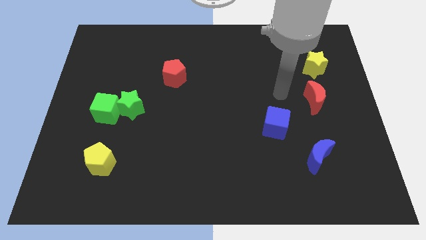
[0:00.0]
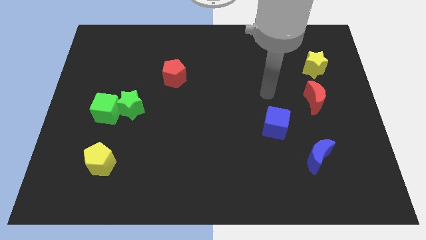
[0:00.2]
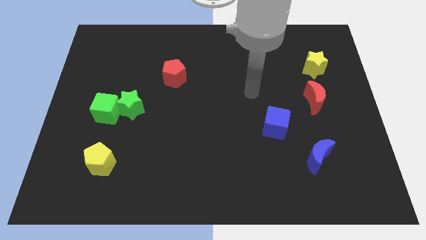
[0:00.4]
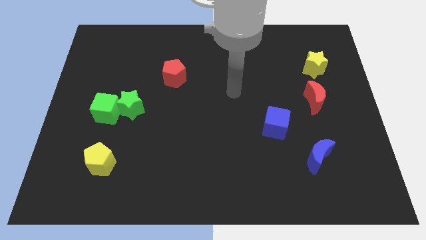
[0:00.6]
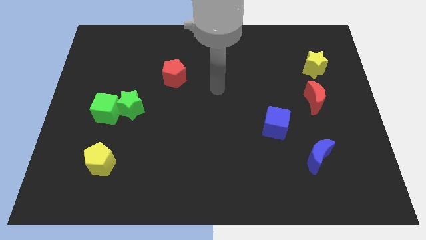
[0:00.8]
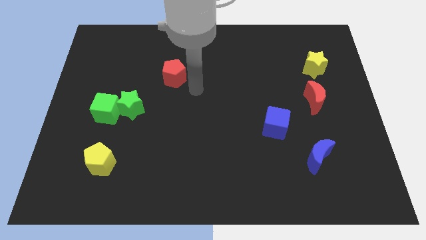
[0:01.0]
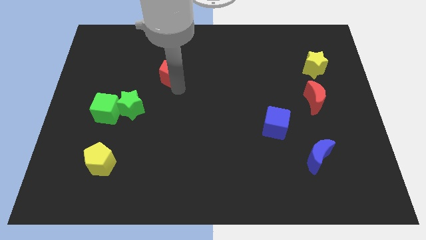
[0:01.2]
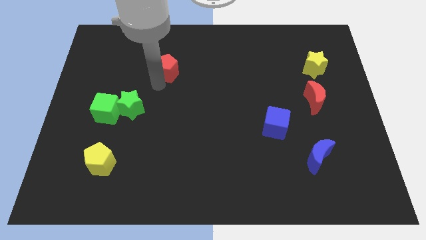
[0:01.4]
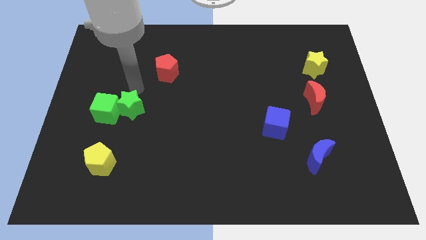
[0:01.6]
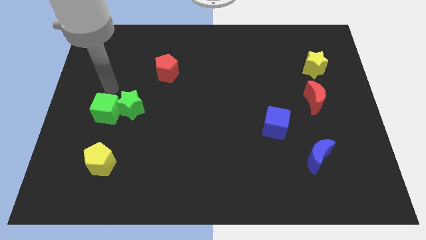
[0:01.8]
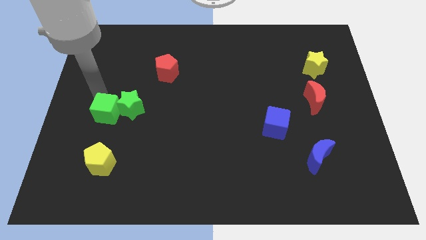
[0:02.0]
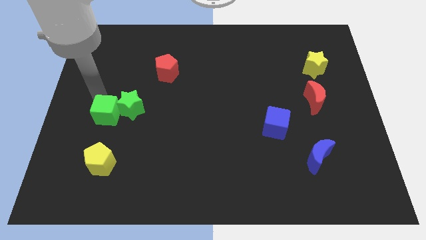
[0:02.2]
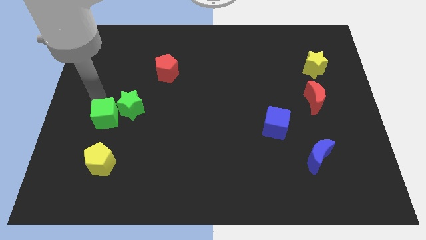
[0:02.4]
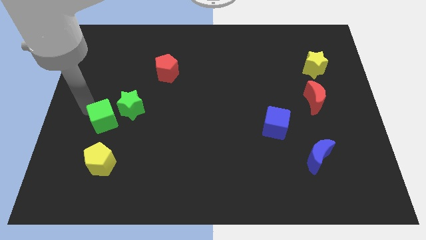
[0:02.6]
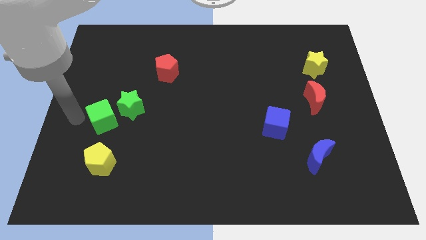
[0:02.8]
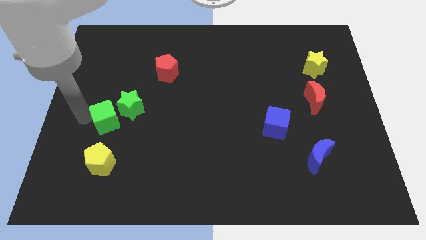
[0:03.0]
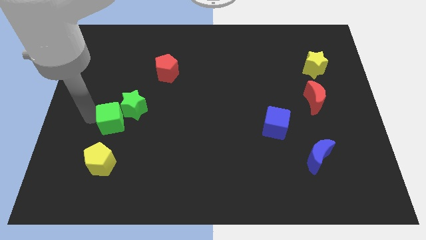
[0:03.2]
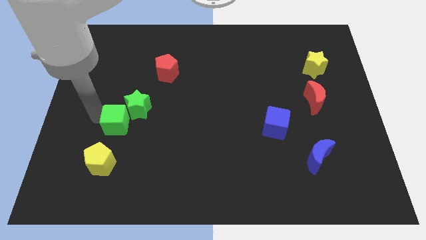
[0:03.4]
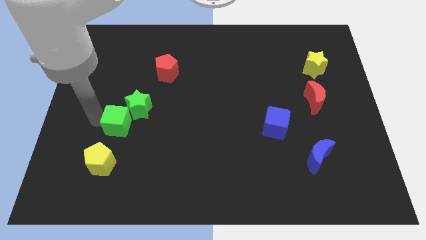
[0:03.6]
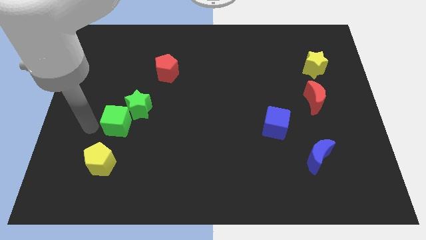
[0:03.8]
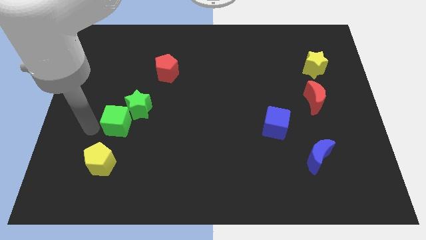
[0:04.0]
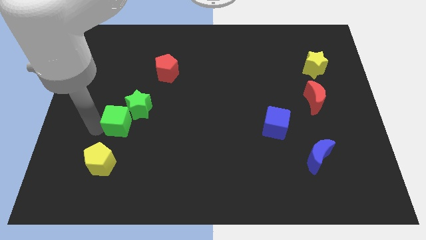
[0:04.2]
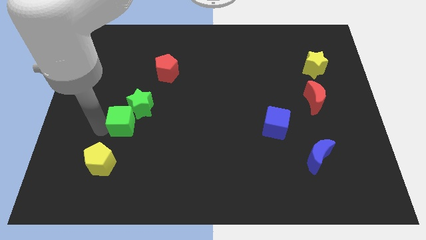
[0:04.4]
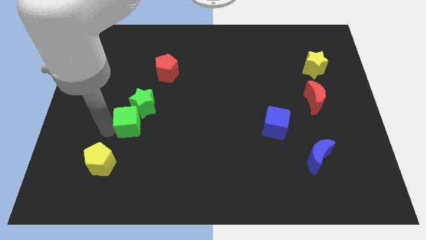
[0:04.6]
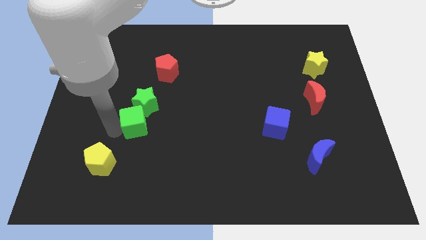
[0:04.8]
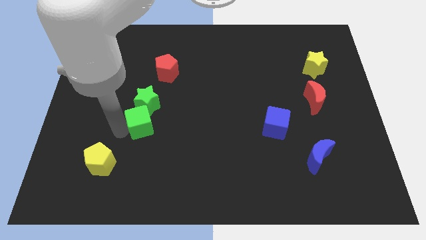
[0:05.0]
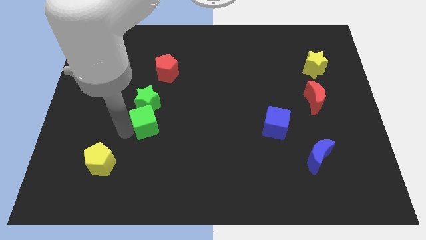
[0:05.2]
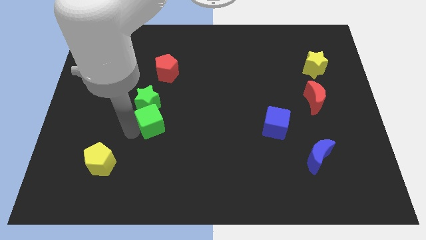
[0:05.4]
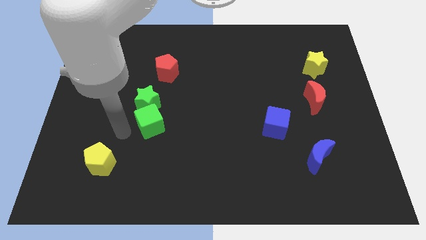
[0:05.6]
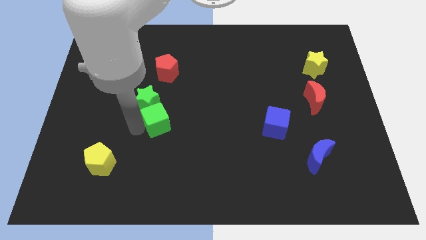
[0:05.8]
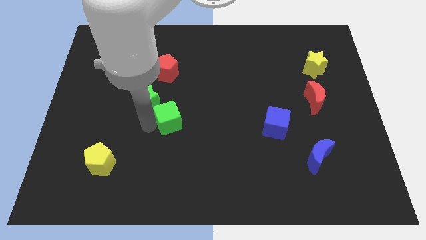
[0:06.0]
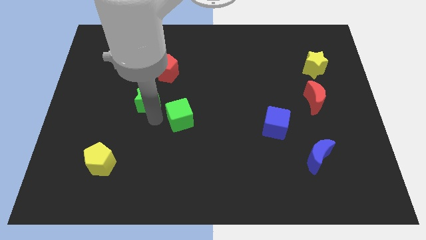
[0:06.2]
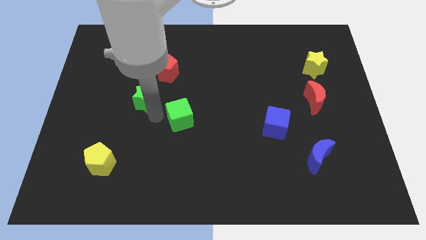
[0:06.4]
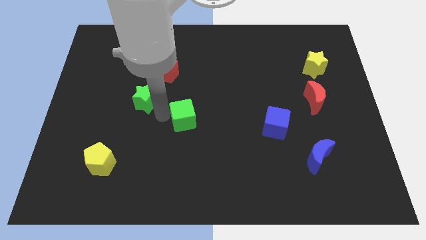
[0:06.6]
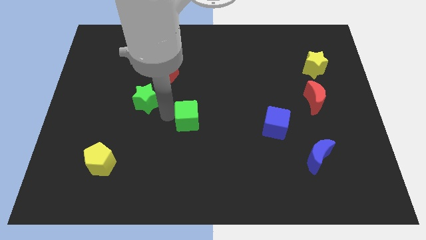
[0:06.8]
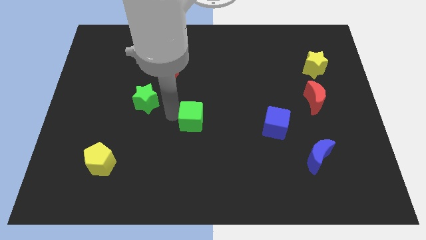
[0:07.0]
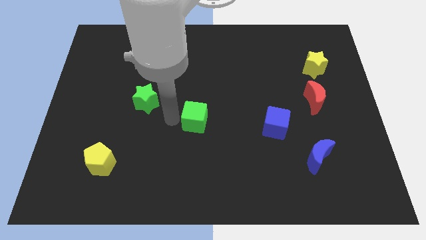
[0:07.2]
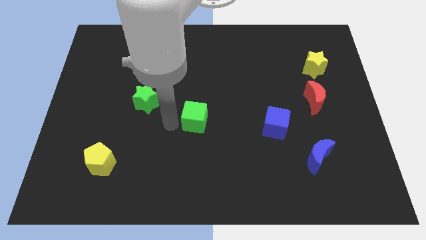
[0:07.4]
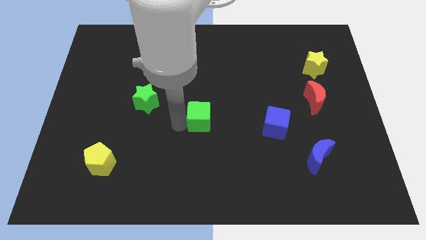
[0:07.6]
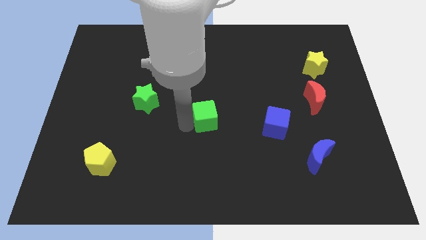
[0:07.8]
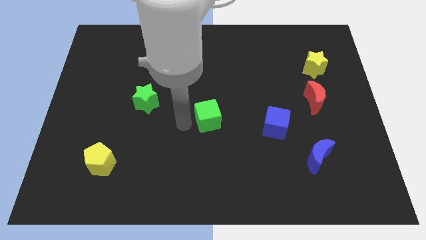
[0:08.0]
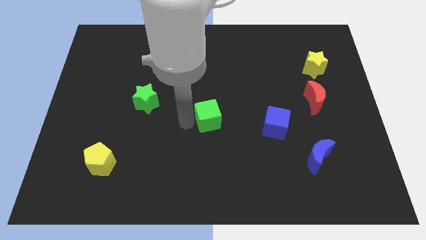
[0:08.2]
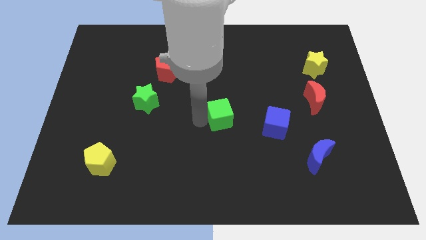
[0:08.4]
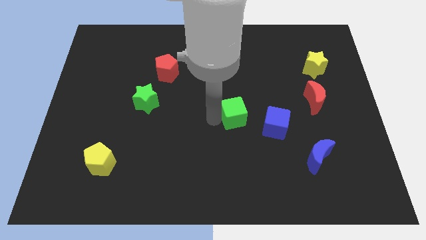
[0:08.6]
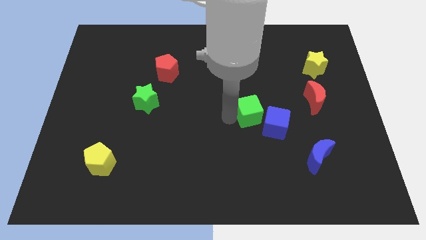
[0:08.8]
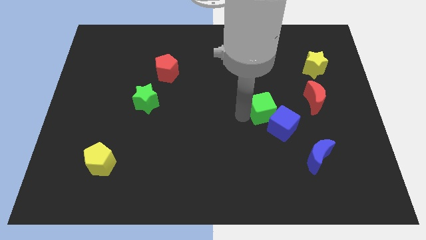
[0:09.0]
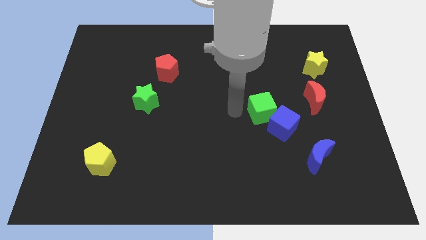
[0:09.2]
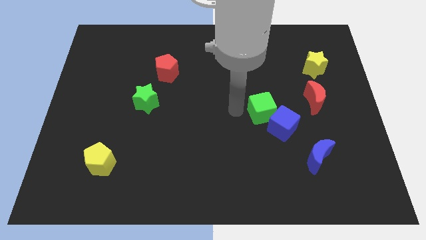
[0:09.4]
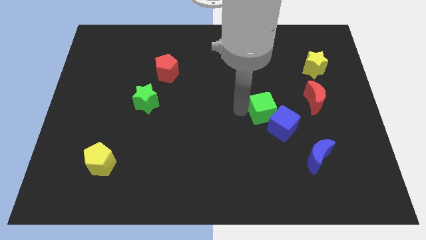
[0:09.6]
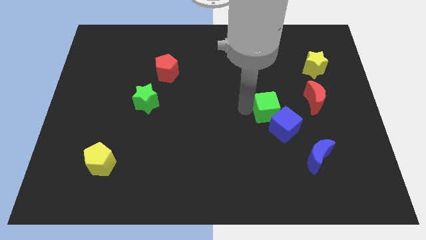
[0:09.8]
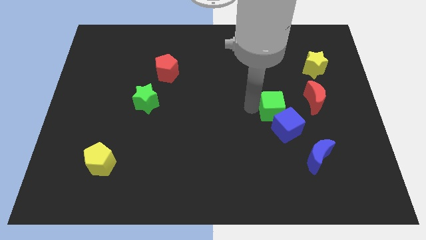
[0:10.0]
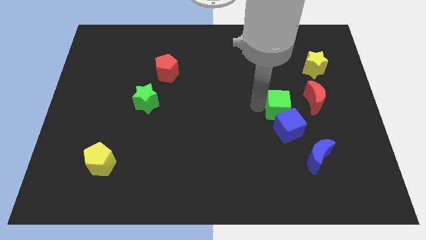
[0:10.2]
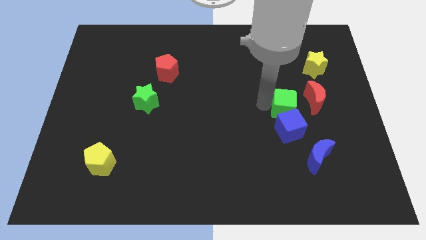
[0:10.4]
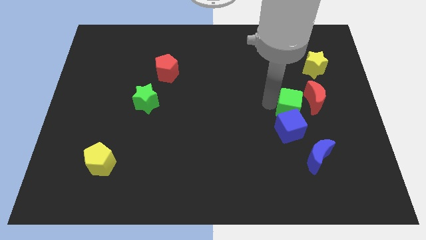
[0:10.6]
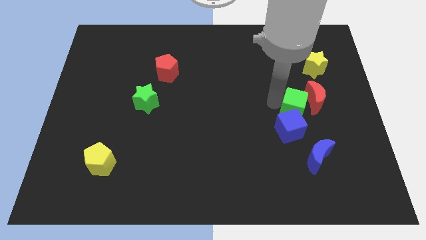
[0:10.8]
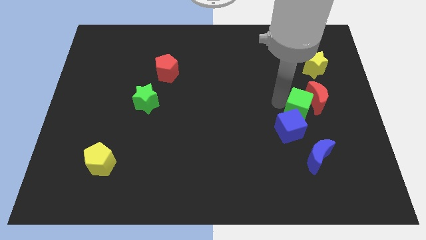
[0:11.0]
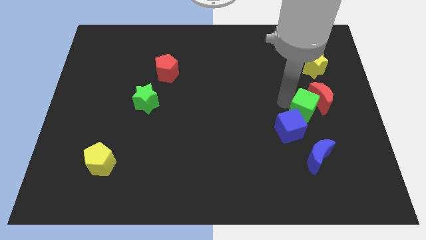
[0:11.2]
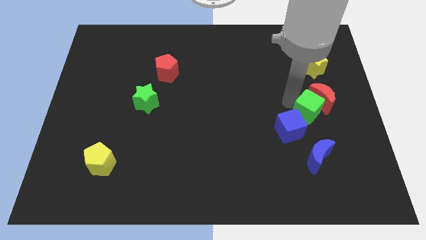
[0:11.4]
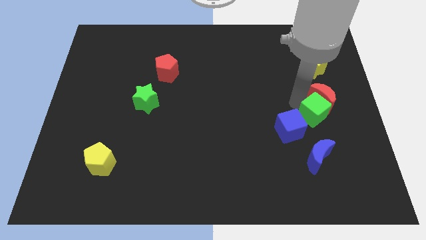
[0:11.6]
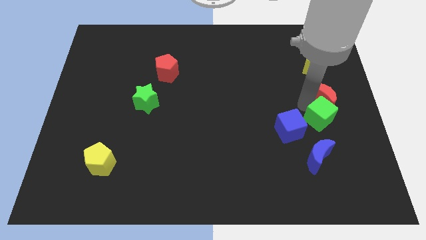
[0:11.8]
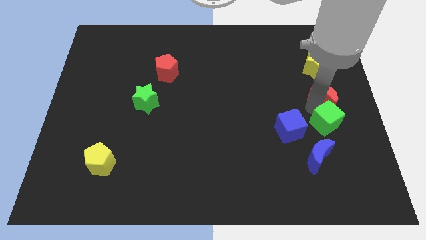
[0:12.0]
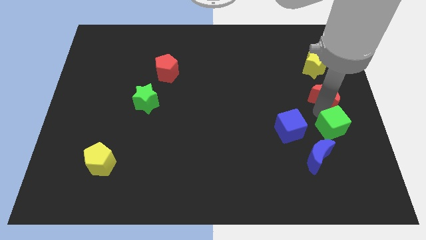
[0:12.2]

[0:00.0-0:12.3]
move the green cube to the center right

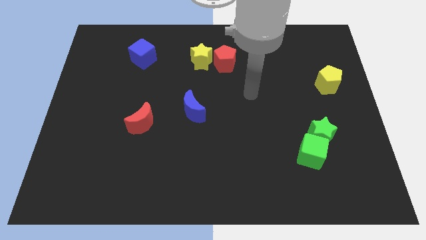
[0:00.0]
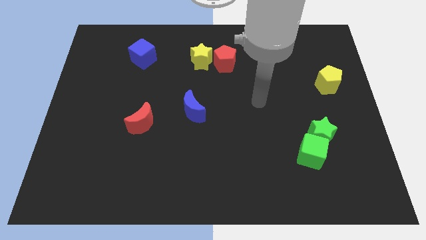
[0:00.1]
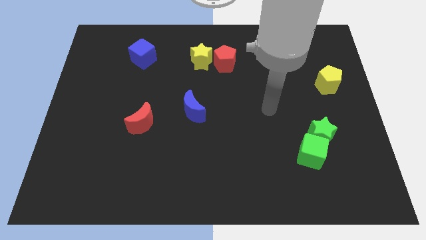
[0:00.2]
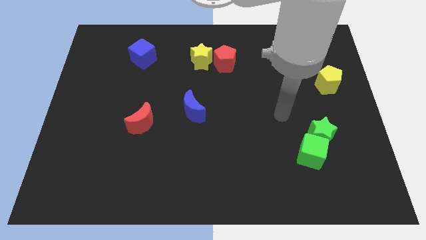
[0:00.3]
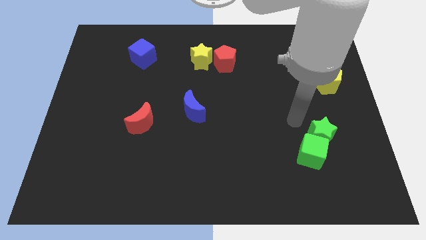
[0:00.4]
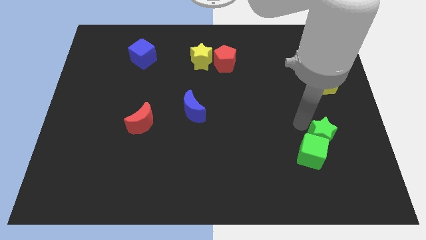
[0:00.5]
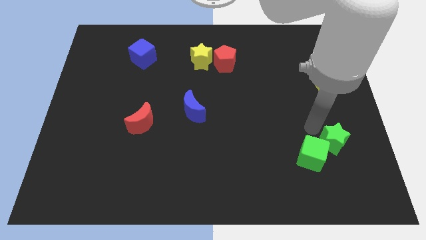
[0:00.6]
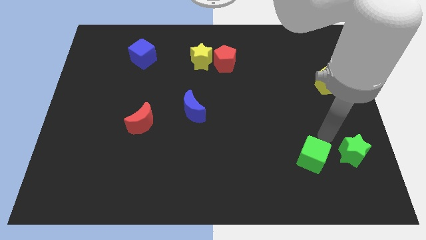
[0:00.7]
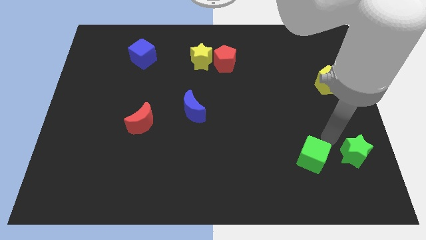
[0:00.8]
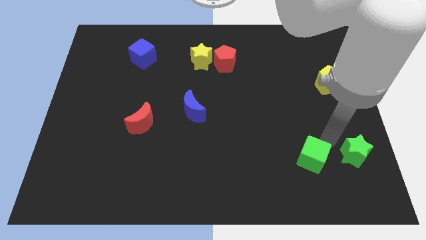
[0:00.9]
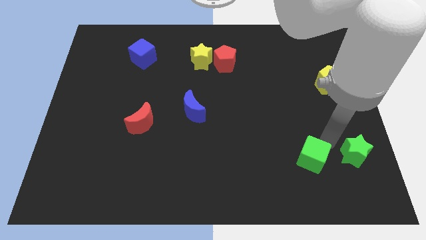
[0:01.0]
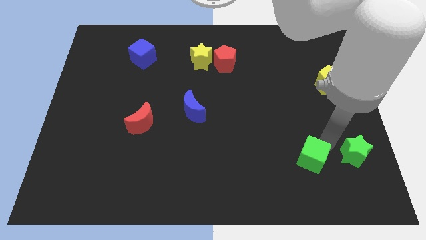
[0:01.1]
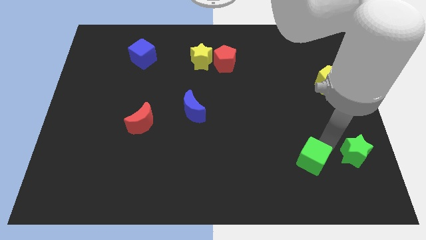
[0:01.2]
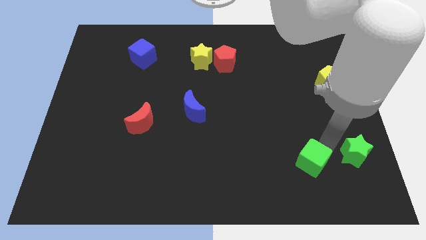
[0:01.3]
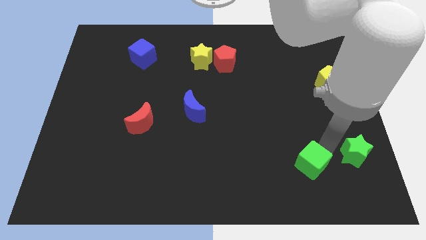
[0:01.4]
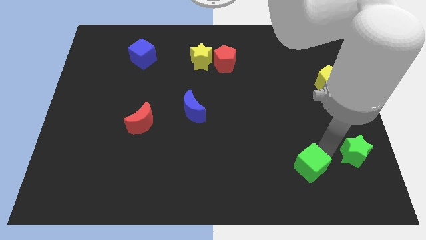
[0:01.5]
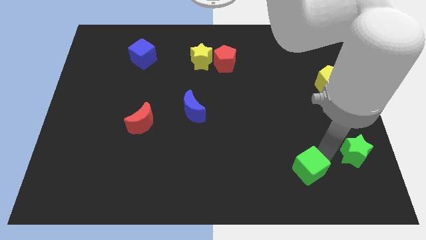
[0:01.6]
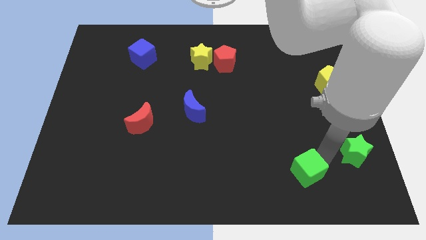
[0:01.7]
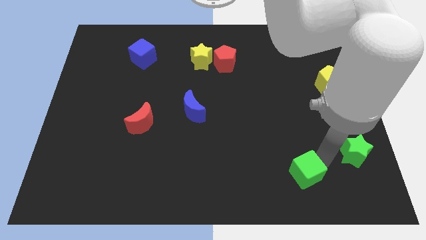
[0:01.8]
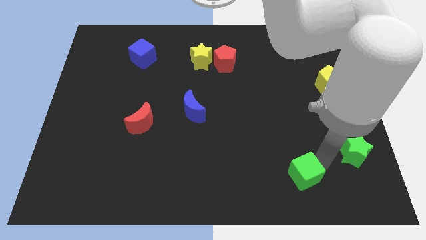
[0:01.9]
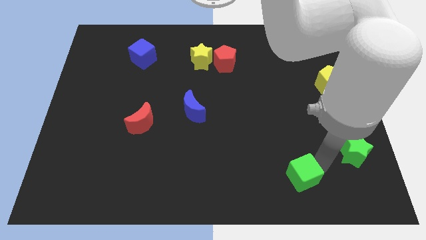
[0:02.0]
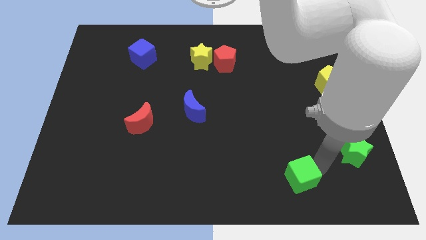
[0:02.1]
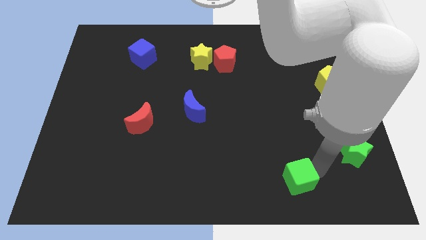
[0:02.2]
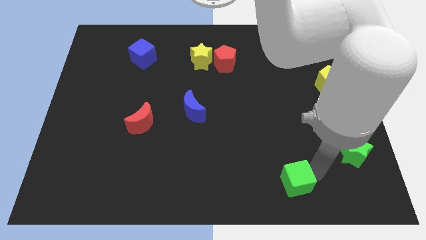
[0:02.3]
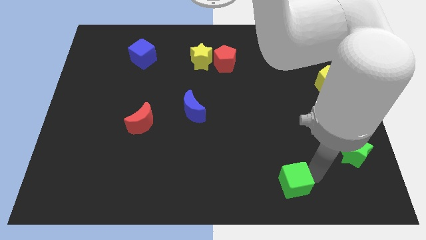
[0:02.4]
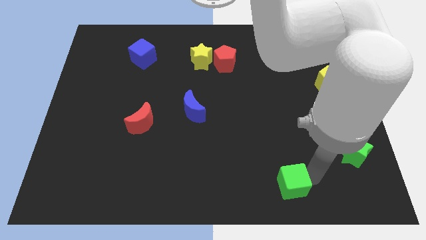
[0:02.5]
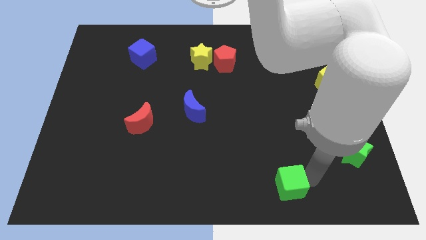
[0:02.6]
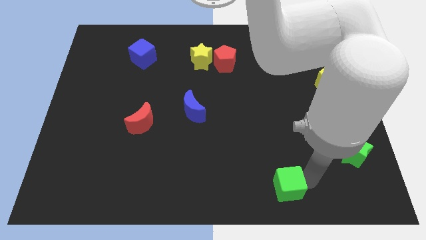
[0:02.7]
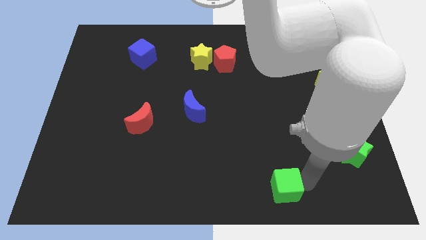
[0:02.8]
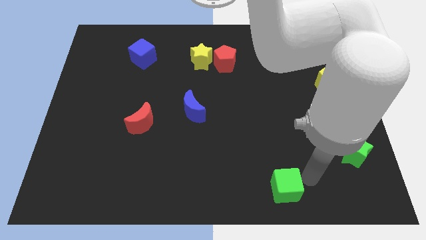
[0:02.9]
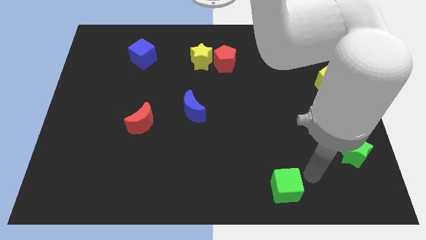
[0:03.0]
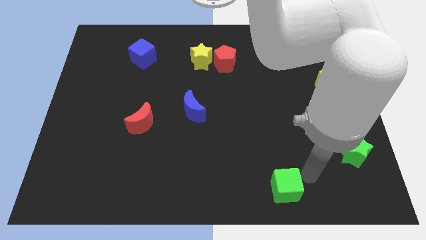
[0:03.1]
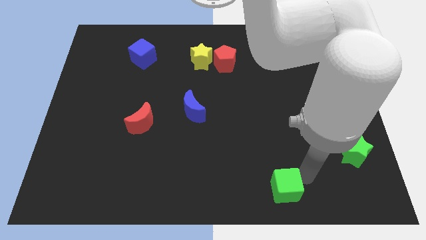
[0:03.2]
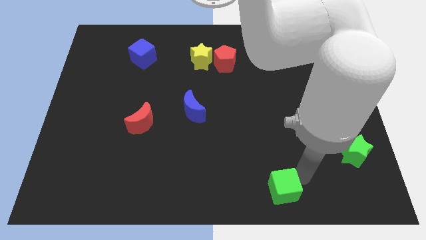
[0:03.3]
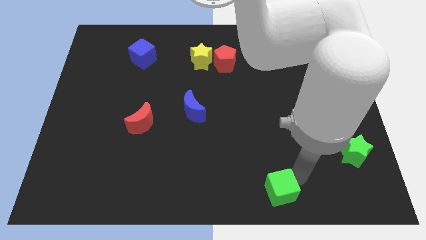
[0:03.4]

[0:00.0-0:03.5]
move the green cube to the bottom side
